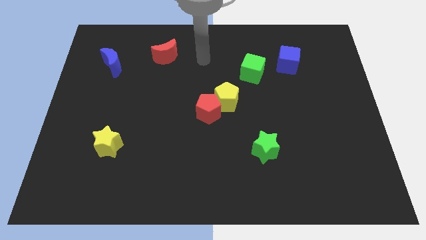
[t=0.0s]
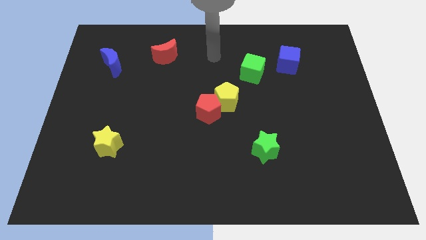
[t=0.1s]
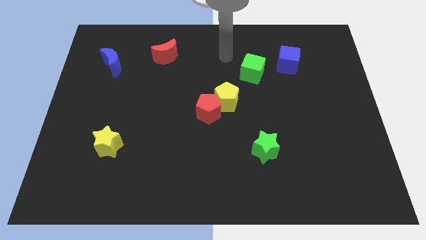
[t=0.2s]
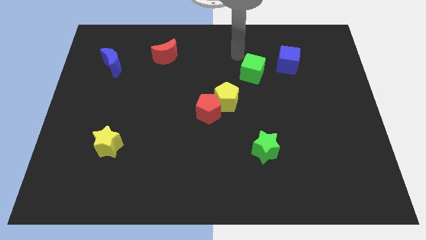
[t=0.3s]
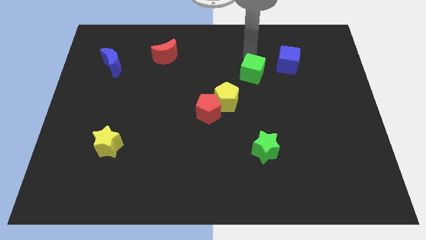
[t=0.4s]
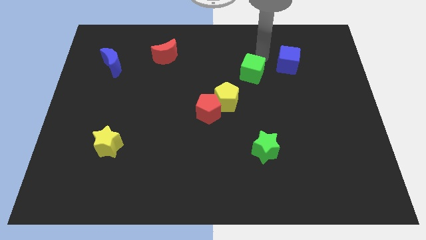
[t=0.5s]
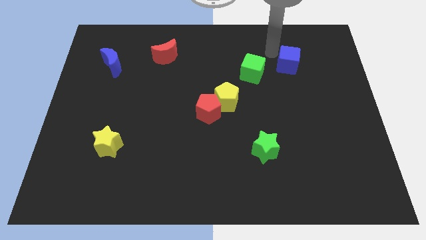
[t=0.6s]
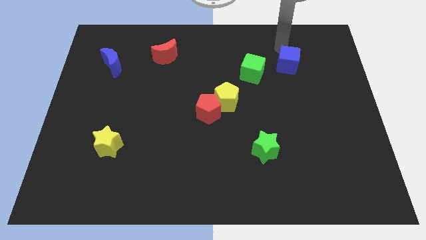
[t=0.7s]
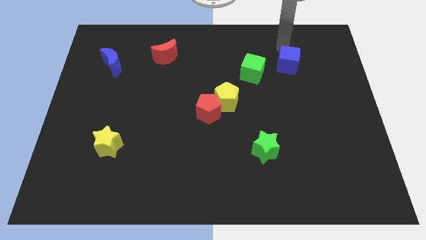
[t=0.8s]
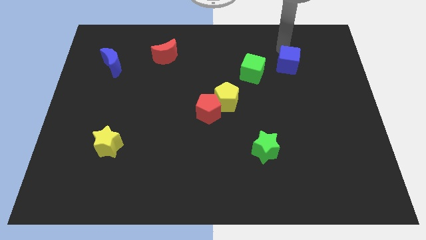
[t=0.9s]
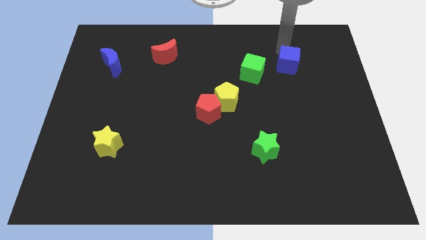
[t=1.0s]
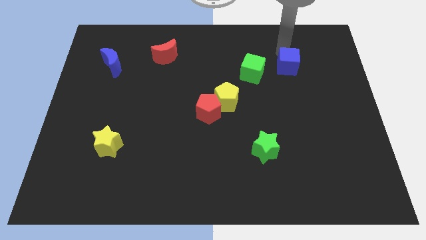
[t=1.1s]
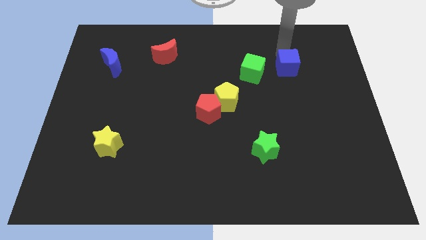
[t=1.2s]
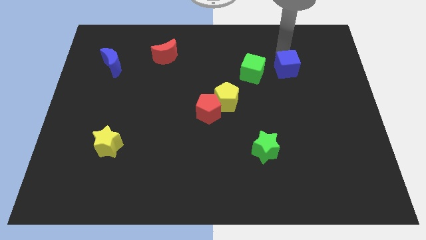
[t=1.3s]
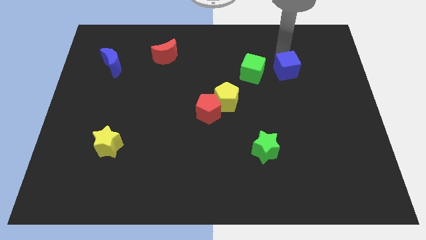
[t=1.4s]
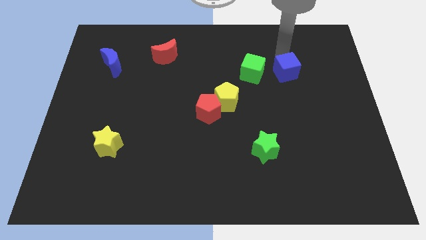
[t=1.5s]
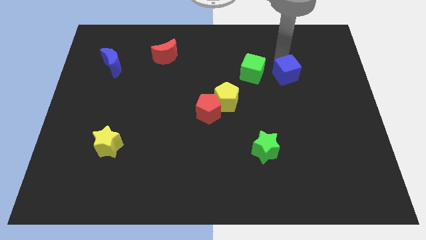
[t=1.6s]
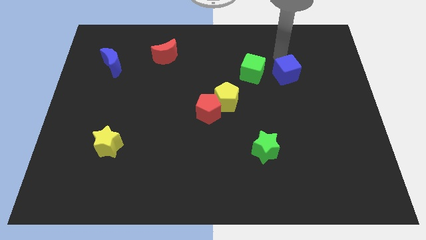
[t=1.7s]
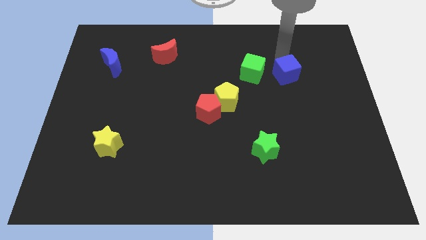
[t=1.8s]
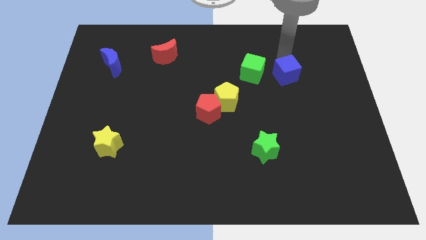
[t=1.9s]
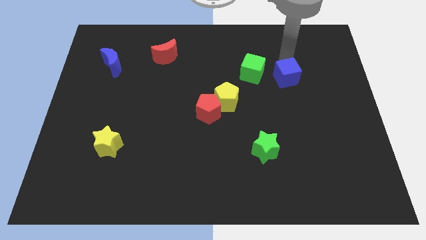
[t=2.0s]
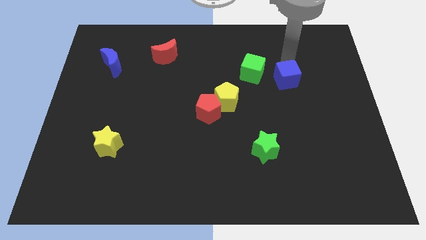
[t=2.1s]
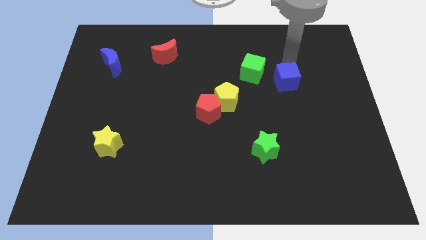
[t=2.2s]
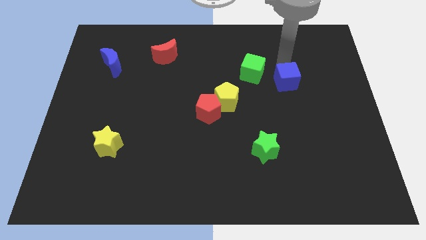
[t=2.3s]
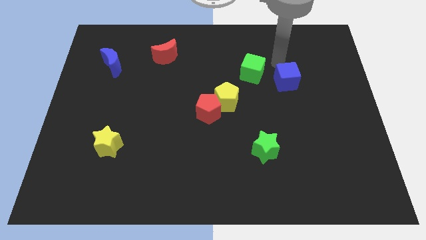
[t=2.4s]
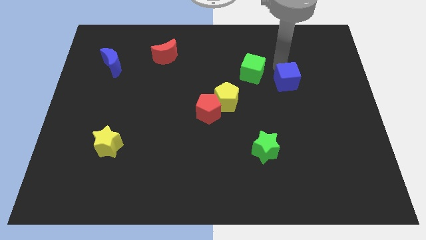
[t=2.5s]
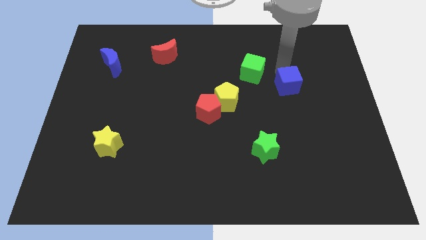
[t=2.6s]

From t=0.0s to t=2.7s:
slide the blue cube a bit down

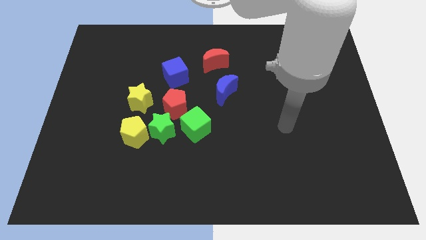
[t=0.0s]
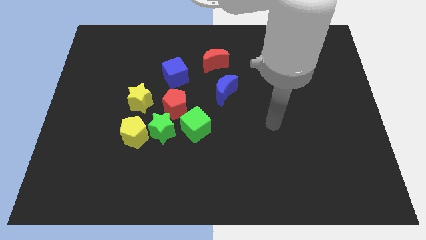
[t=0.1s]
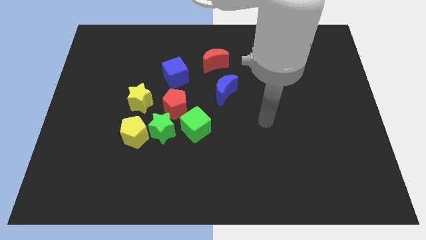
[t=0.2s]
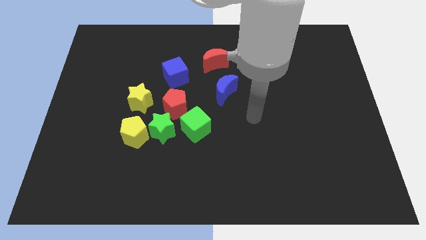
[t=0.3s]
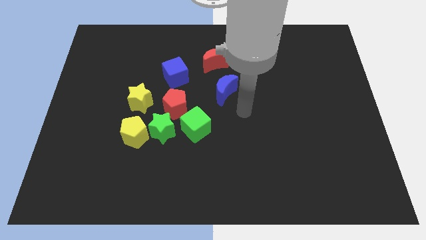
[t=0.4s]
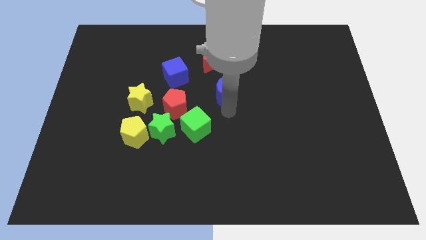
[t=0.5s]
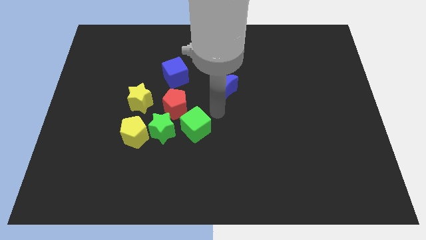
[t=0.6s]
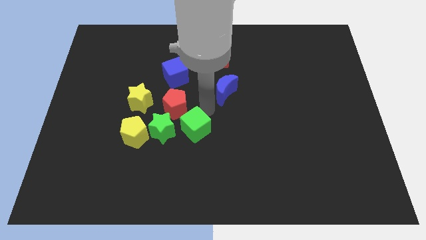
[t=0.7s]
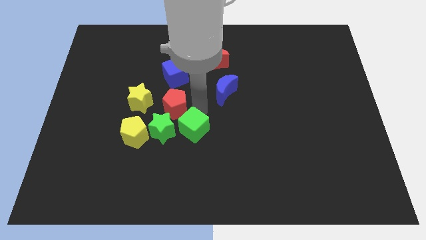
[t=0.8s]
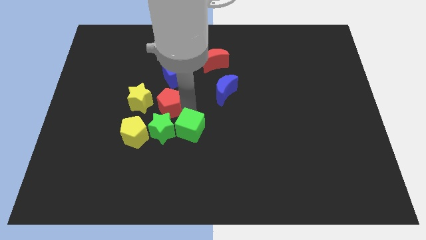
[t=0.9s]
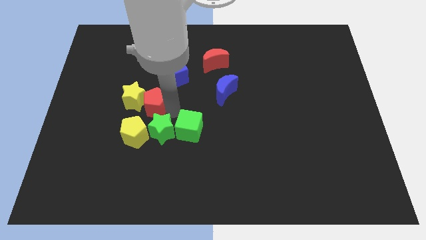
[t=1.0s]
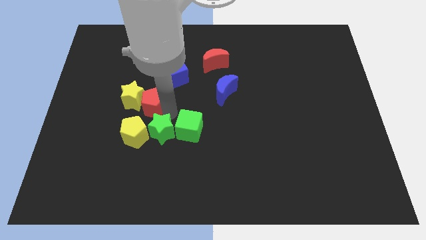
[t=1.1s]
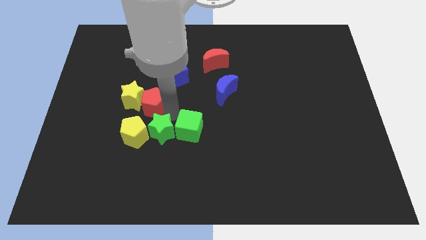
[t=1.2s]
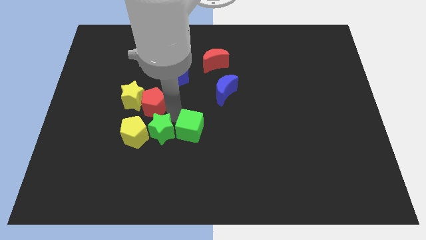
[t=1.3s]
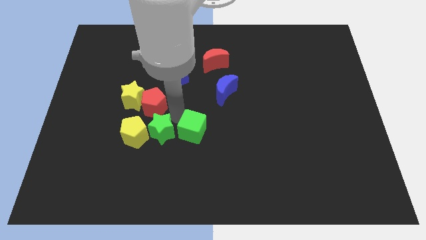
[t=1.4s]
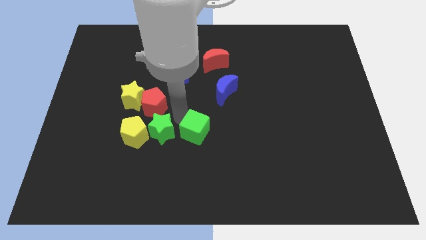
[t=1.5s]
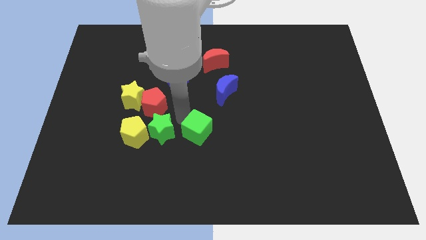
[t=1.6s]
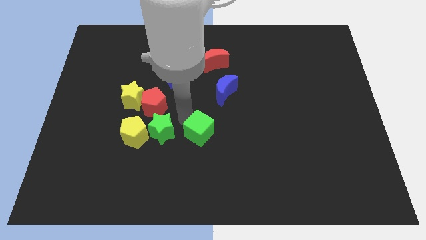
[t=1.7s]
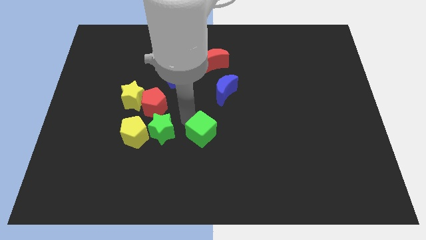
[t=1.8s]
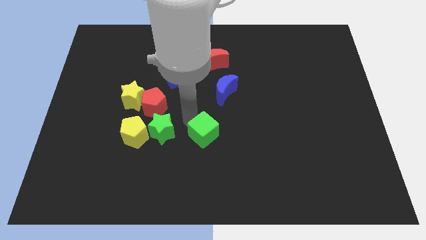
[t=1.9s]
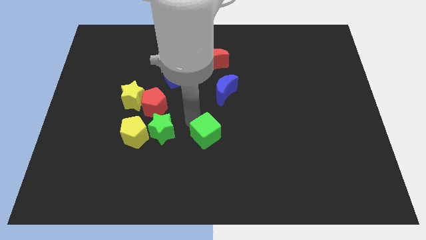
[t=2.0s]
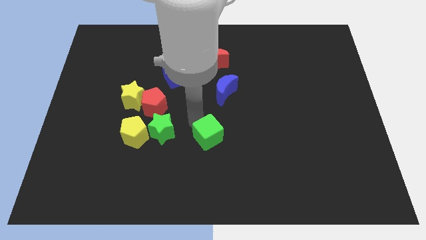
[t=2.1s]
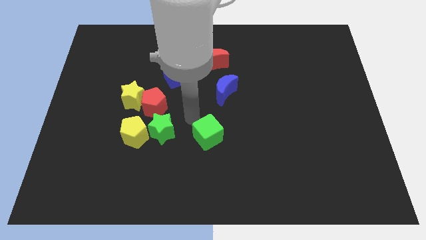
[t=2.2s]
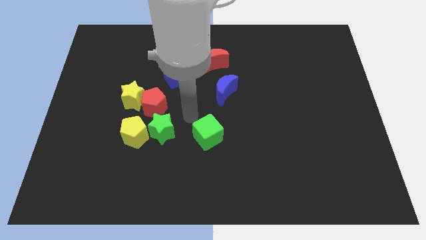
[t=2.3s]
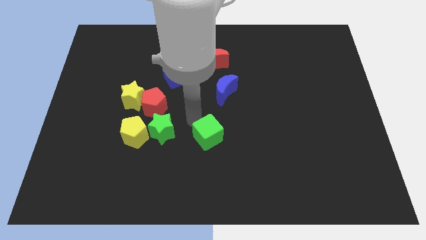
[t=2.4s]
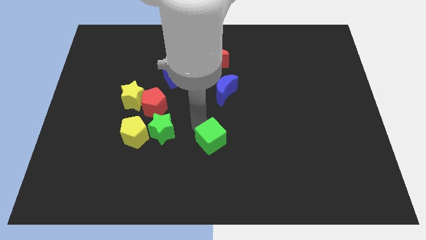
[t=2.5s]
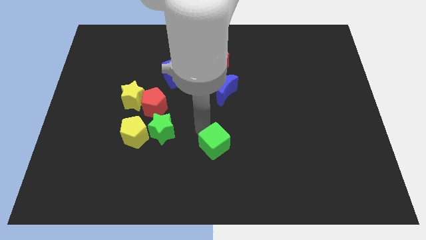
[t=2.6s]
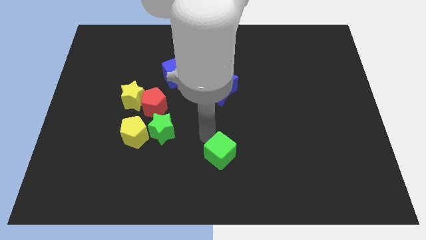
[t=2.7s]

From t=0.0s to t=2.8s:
move the green cube downwards and right slightly

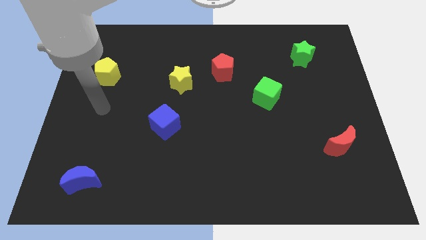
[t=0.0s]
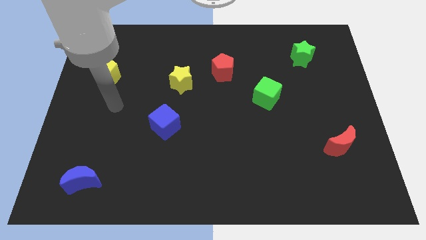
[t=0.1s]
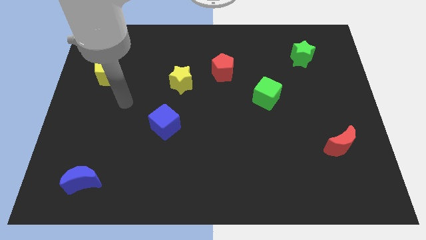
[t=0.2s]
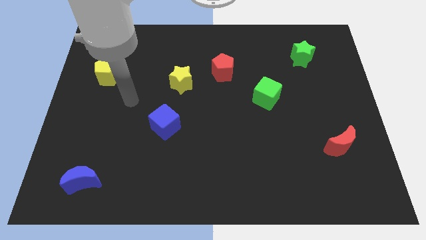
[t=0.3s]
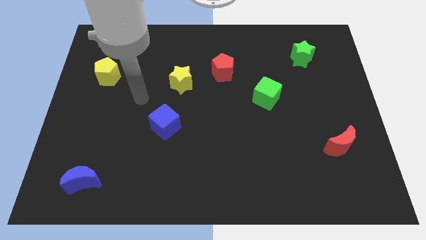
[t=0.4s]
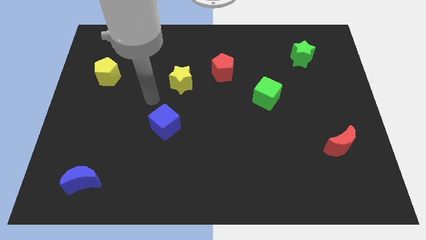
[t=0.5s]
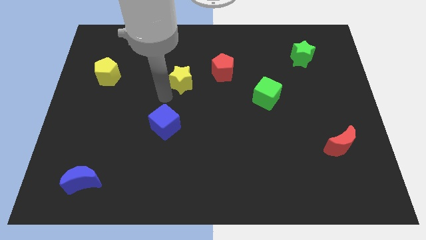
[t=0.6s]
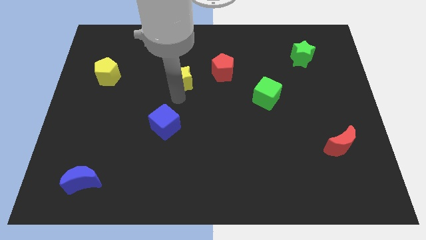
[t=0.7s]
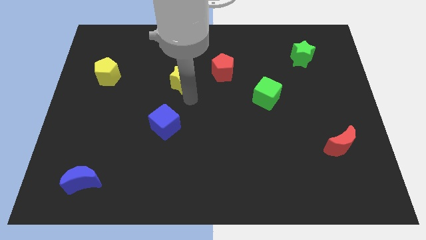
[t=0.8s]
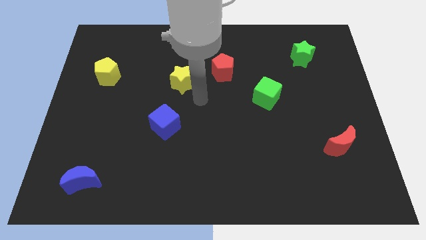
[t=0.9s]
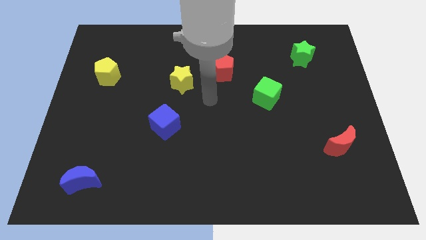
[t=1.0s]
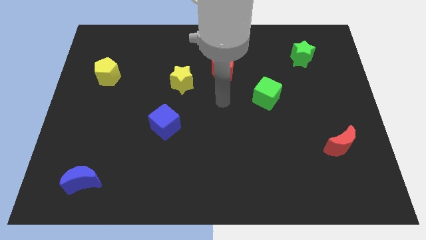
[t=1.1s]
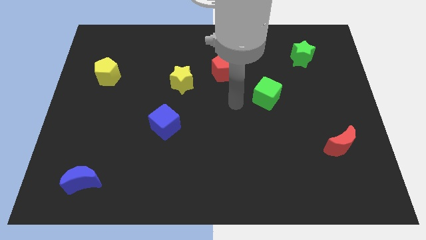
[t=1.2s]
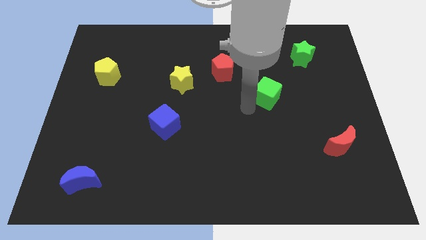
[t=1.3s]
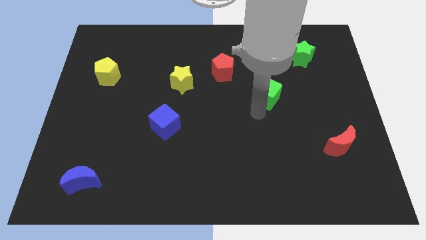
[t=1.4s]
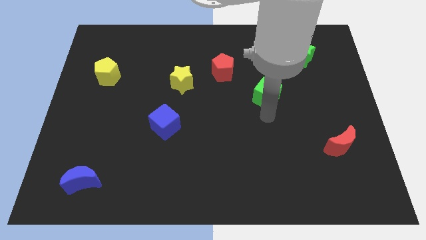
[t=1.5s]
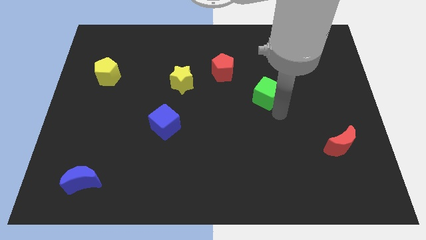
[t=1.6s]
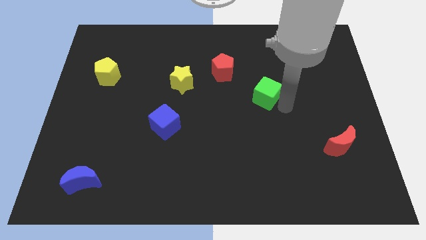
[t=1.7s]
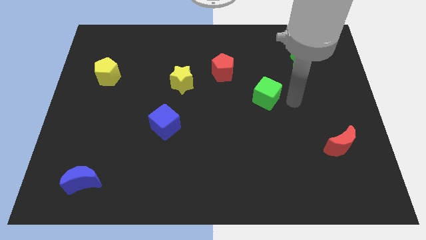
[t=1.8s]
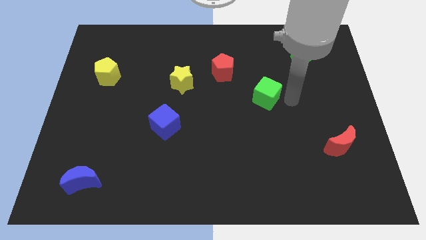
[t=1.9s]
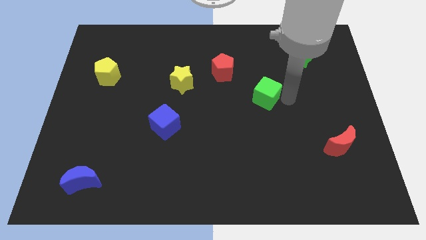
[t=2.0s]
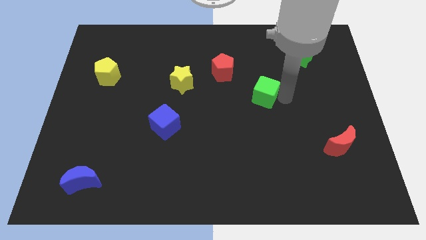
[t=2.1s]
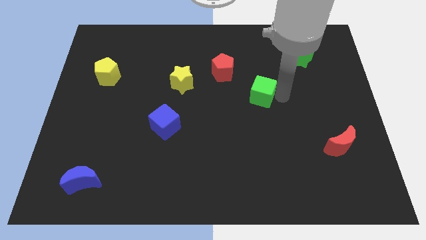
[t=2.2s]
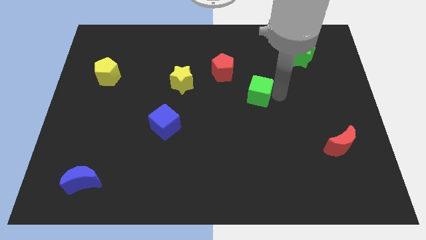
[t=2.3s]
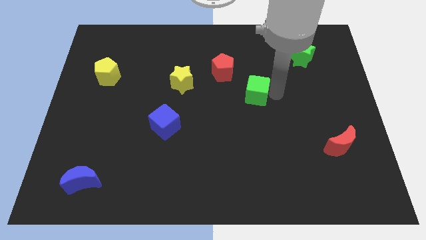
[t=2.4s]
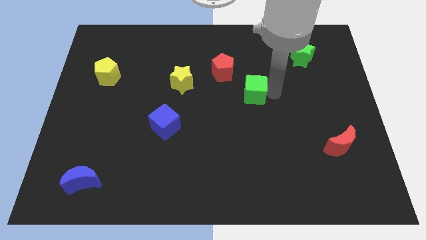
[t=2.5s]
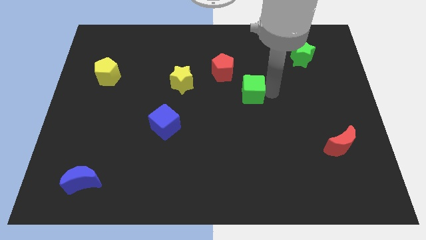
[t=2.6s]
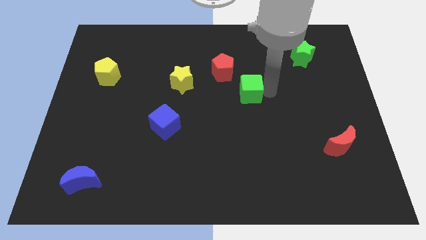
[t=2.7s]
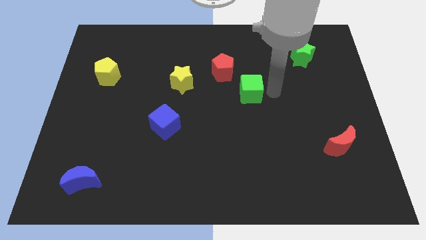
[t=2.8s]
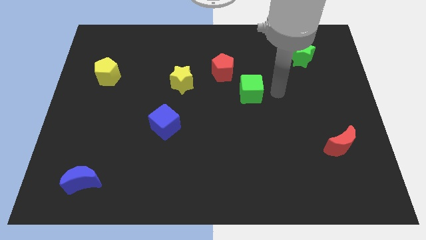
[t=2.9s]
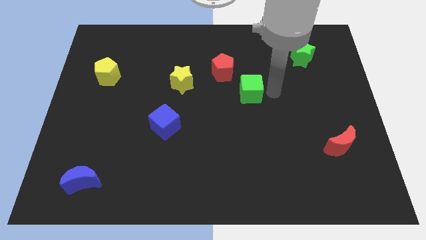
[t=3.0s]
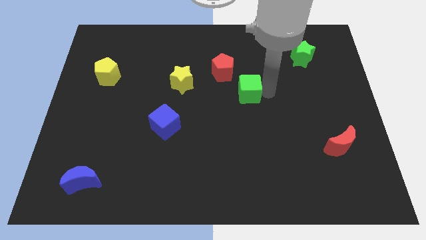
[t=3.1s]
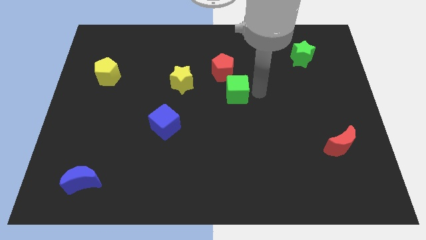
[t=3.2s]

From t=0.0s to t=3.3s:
move the green cube to the left somewhat
